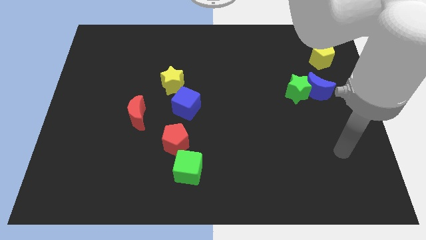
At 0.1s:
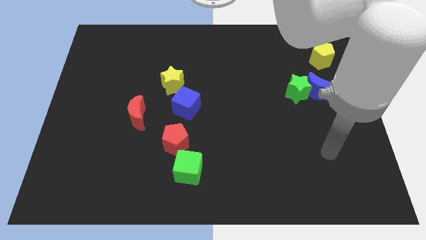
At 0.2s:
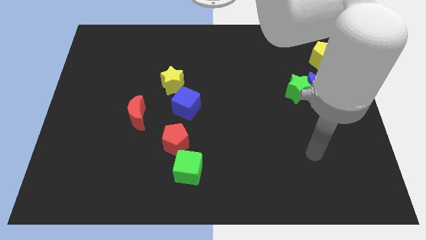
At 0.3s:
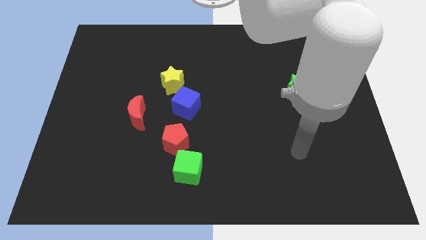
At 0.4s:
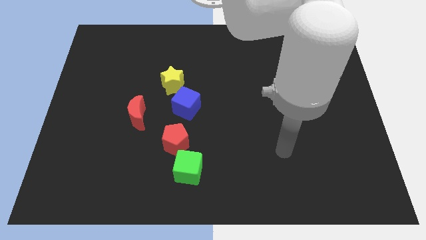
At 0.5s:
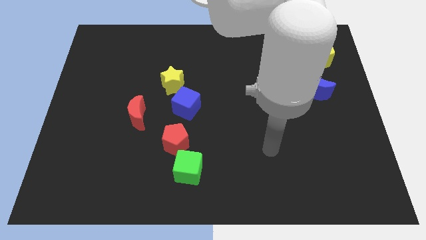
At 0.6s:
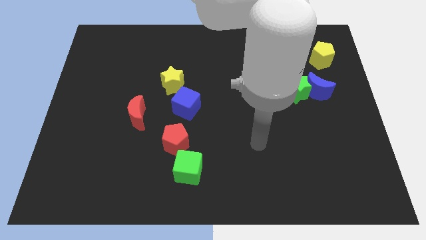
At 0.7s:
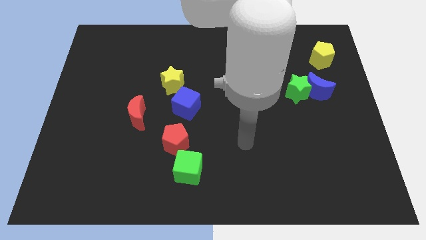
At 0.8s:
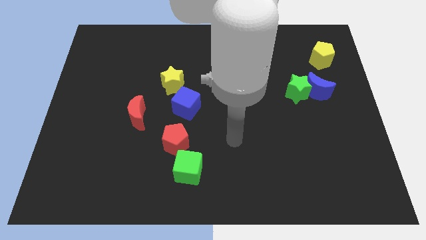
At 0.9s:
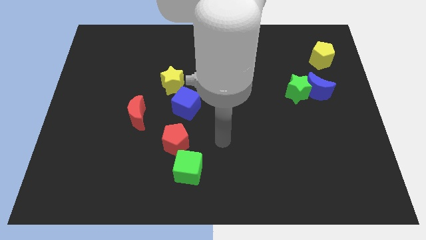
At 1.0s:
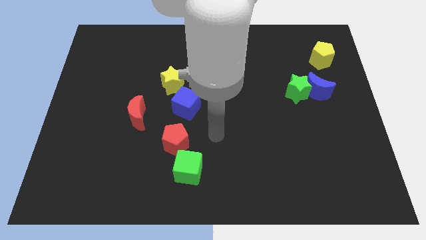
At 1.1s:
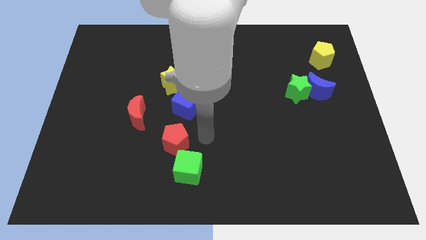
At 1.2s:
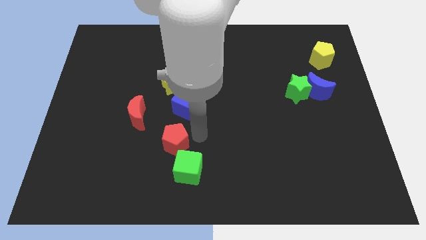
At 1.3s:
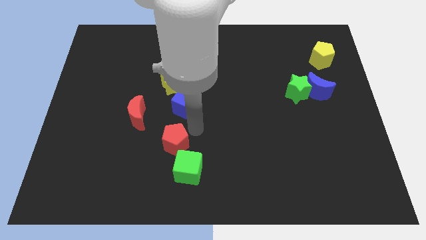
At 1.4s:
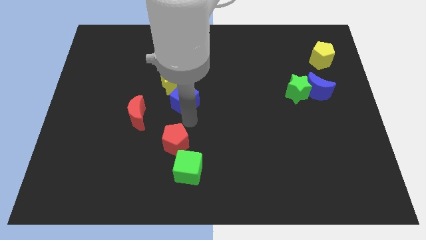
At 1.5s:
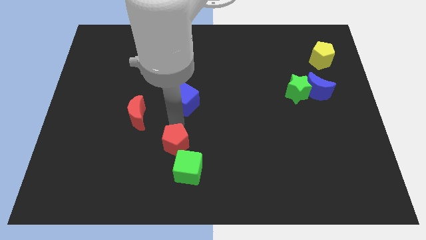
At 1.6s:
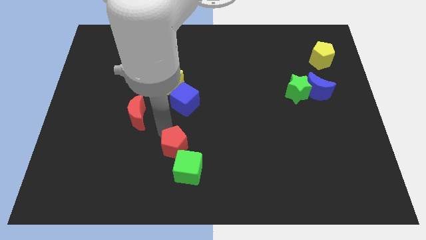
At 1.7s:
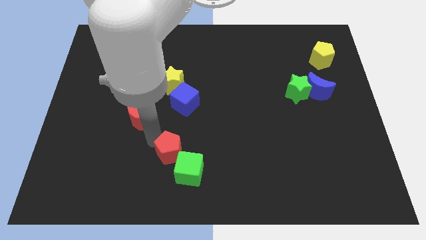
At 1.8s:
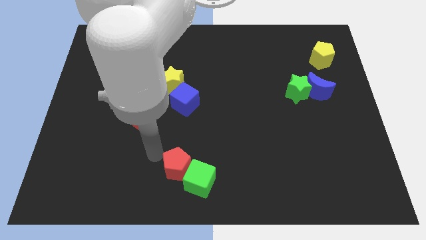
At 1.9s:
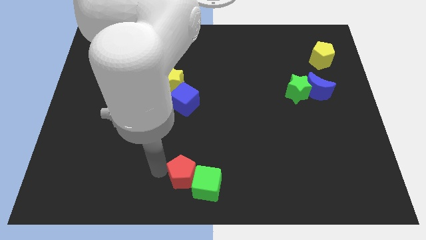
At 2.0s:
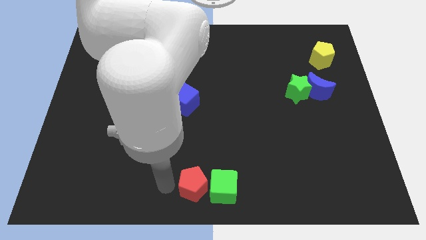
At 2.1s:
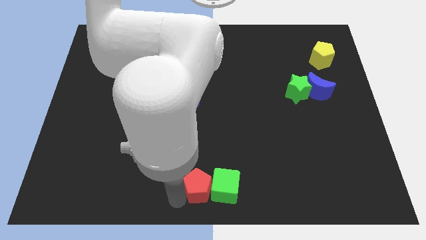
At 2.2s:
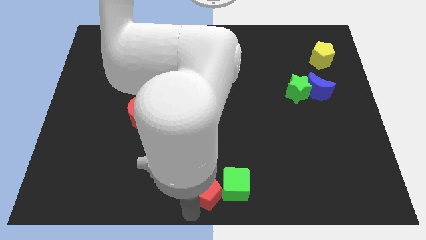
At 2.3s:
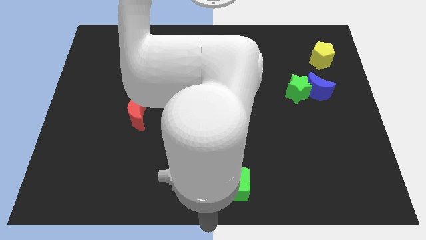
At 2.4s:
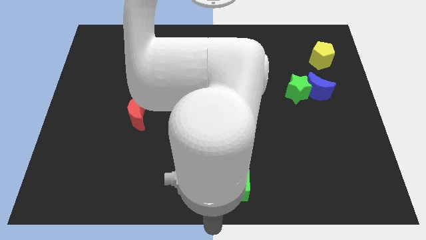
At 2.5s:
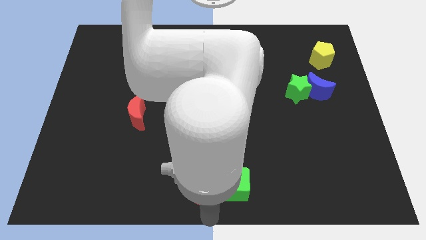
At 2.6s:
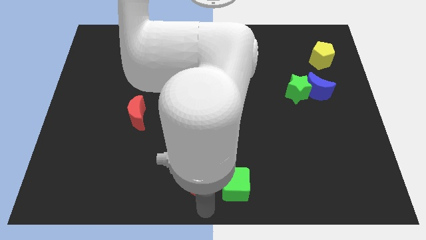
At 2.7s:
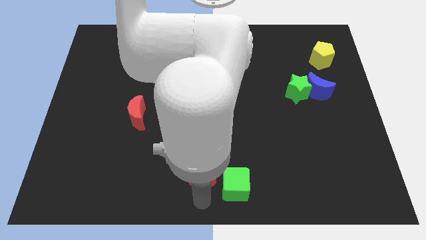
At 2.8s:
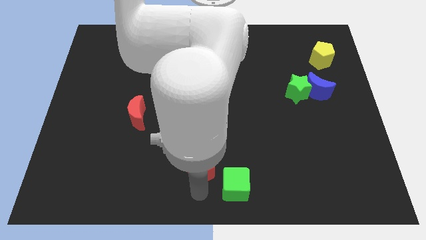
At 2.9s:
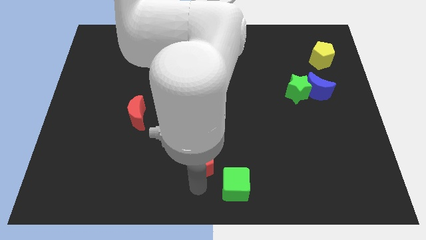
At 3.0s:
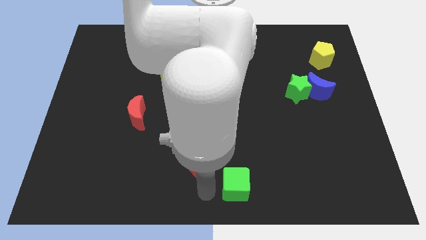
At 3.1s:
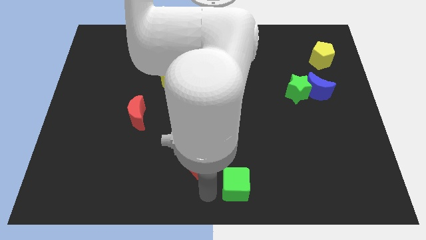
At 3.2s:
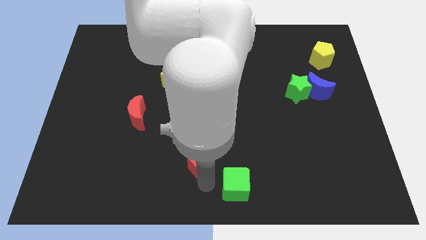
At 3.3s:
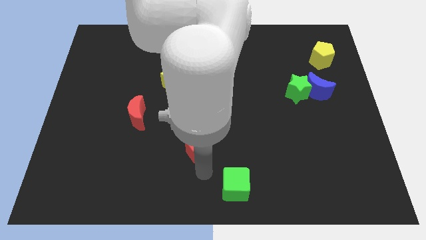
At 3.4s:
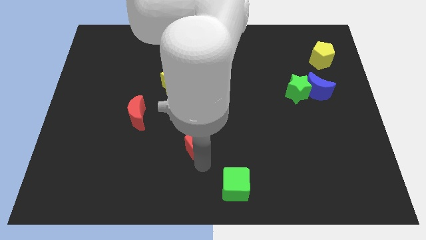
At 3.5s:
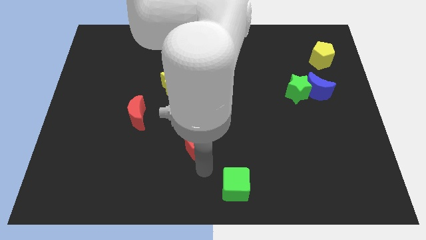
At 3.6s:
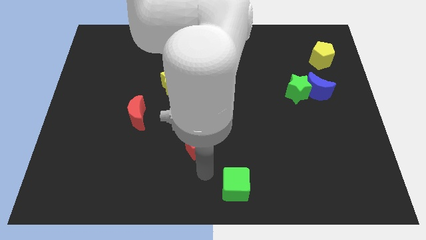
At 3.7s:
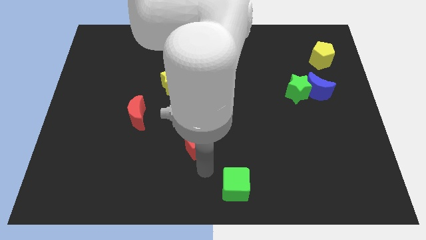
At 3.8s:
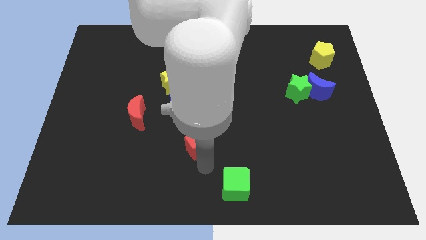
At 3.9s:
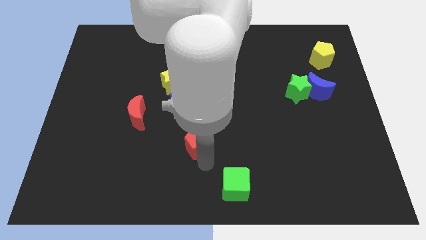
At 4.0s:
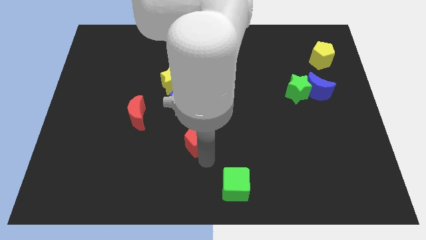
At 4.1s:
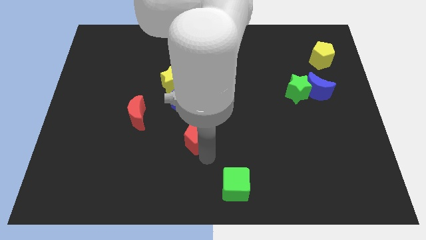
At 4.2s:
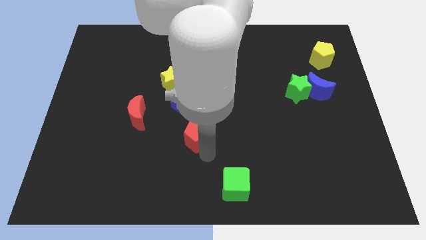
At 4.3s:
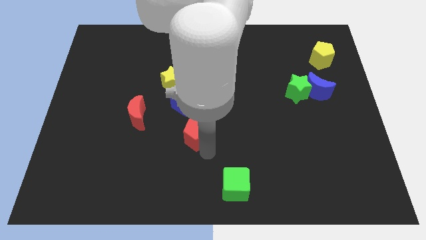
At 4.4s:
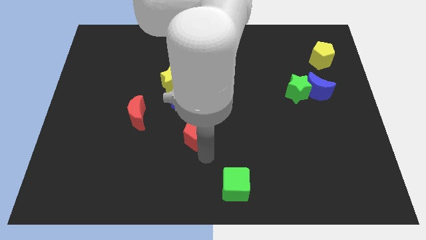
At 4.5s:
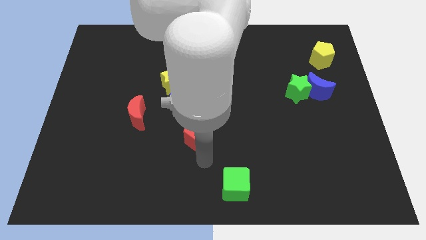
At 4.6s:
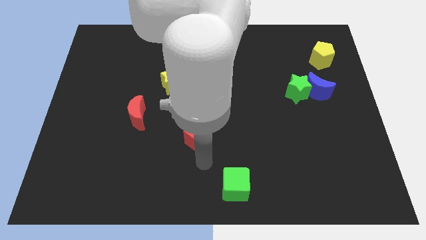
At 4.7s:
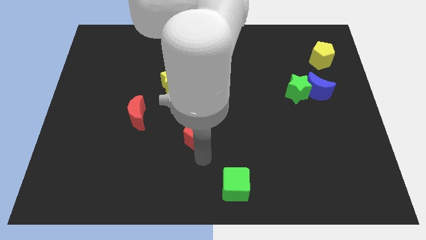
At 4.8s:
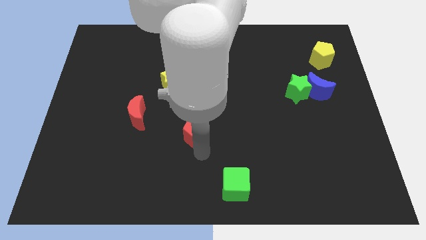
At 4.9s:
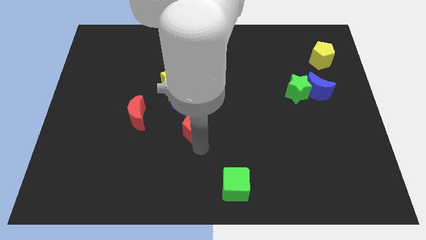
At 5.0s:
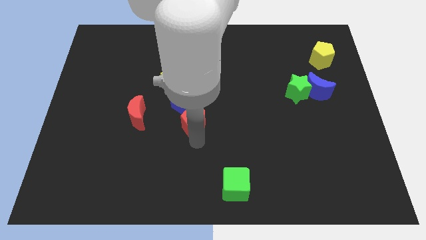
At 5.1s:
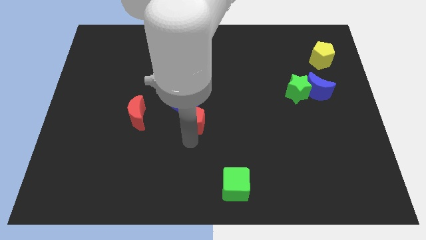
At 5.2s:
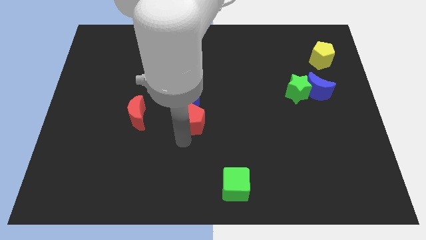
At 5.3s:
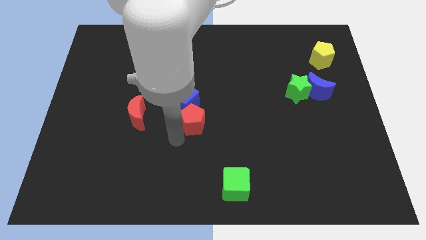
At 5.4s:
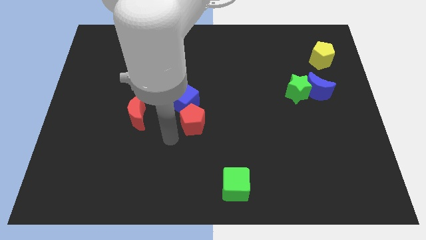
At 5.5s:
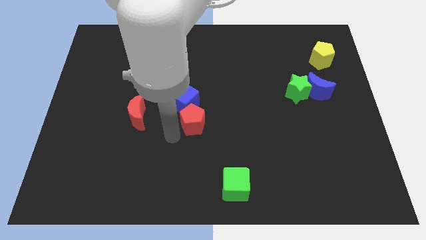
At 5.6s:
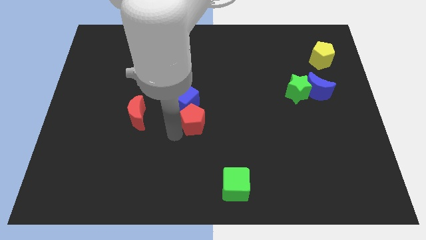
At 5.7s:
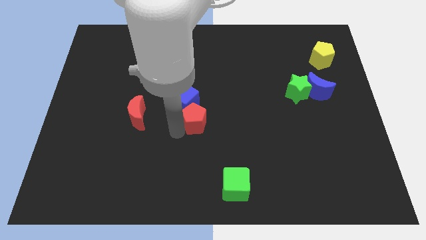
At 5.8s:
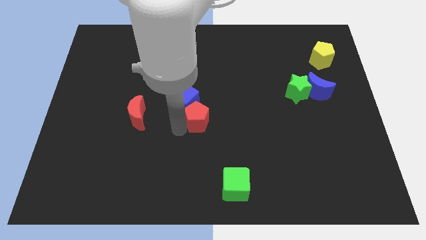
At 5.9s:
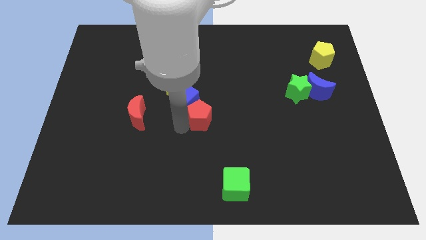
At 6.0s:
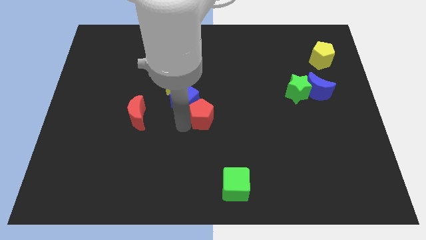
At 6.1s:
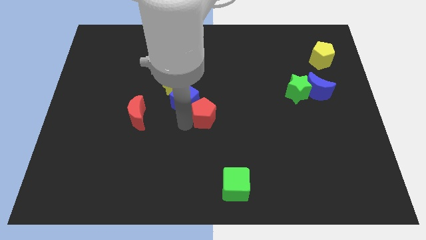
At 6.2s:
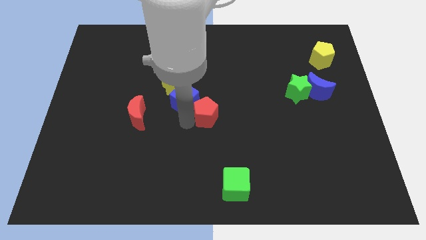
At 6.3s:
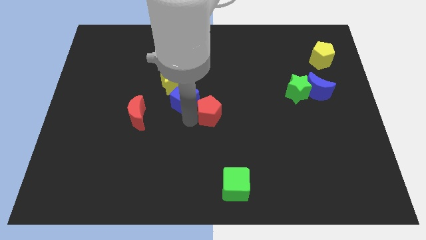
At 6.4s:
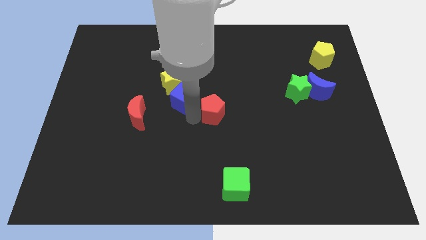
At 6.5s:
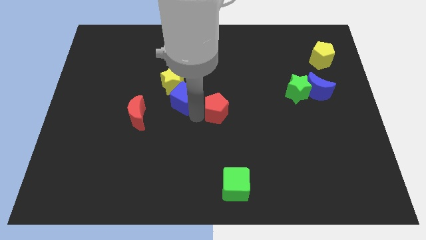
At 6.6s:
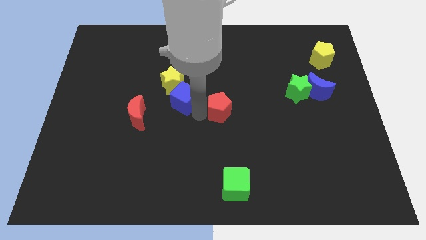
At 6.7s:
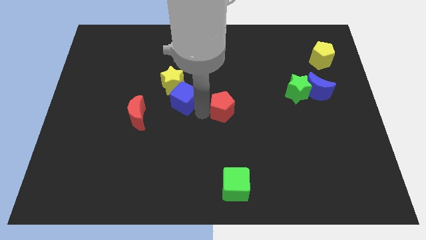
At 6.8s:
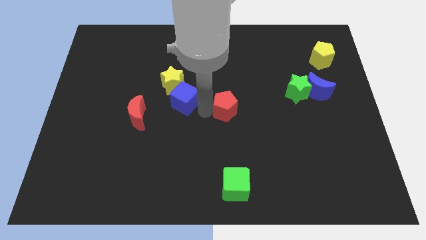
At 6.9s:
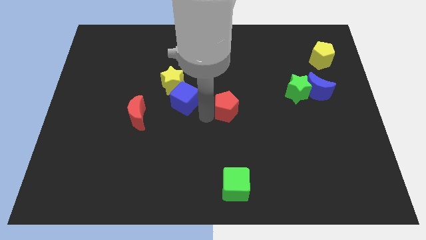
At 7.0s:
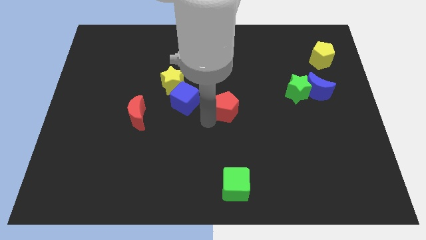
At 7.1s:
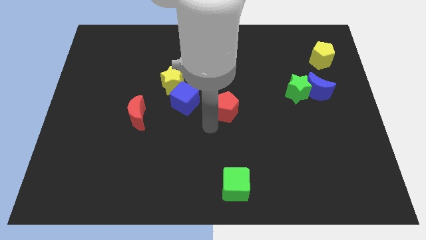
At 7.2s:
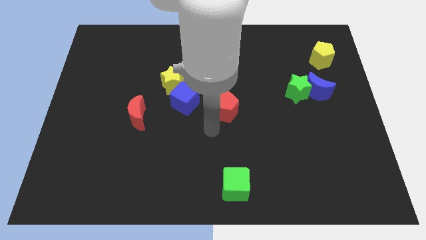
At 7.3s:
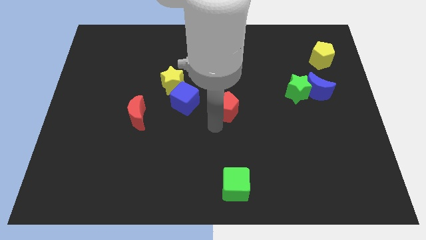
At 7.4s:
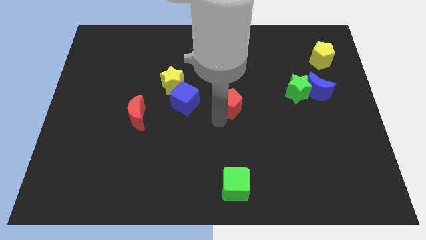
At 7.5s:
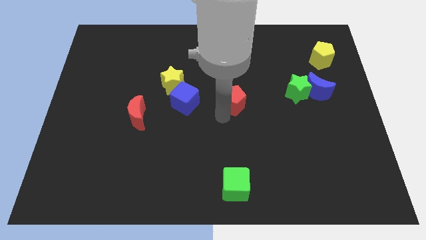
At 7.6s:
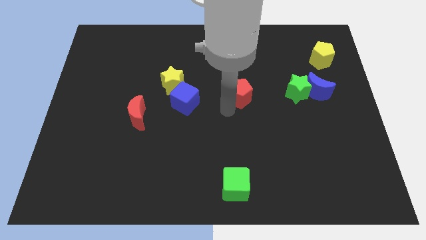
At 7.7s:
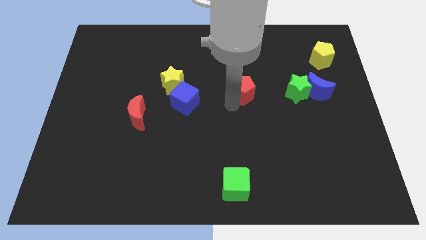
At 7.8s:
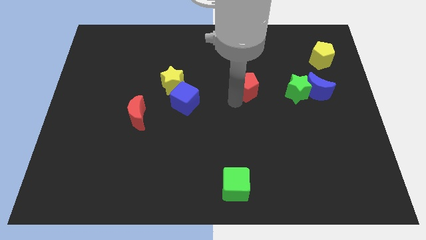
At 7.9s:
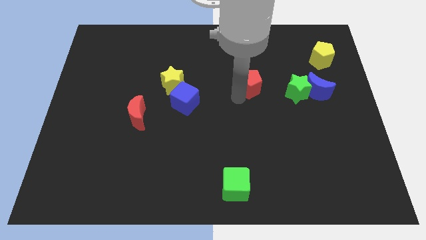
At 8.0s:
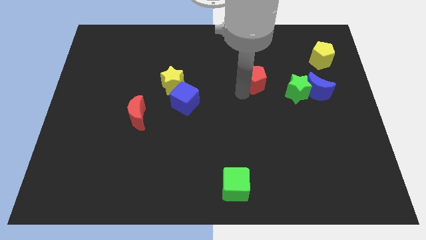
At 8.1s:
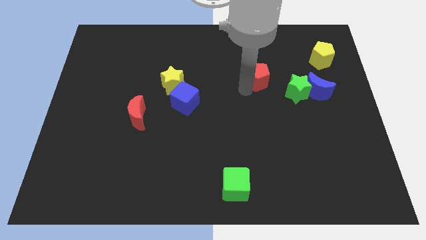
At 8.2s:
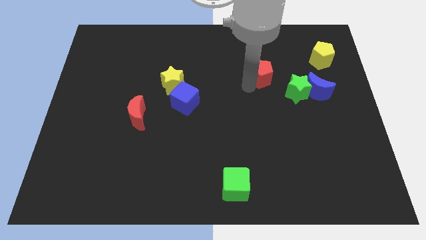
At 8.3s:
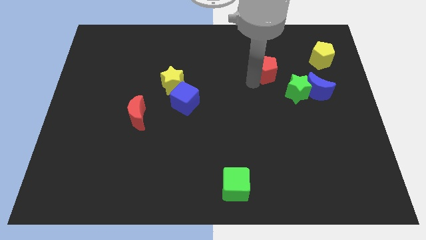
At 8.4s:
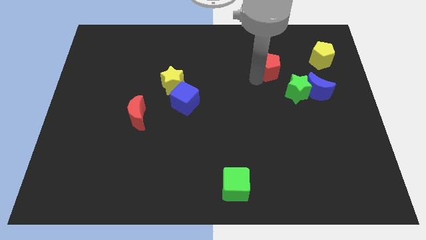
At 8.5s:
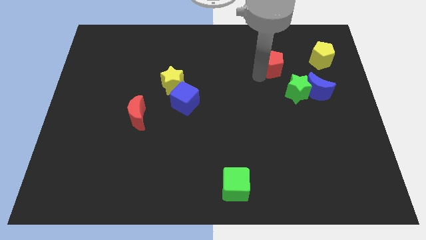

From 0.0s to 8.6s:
move the red pentagon to the top side of the green star
